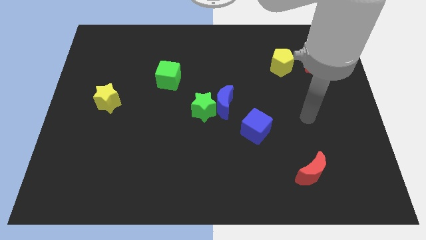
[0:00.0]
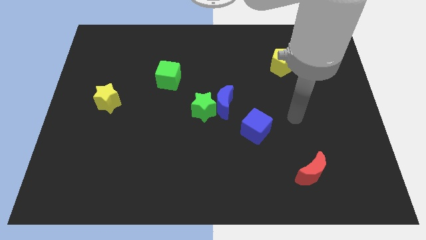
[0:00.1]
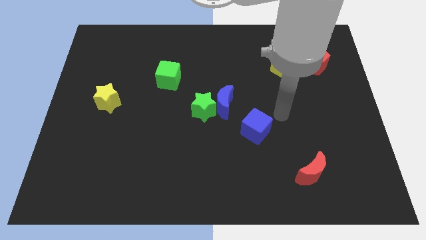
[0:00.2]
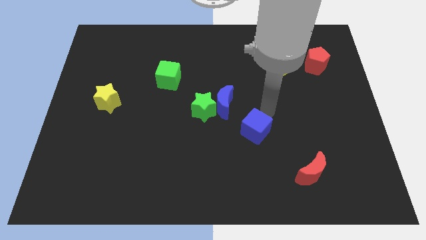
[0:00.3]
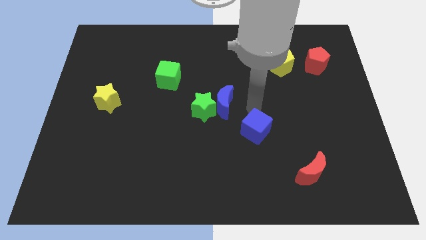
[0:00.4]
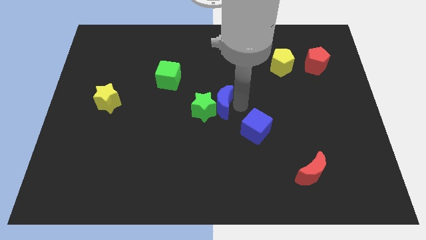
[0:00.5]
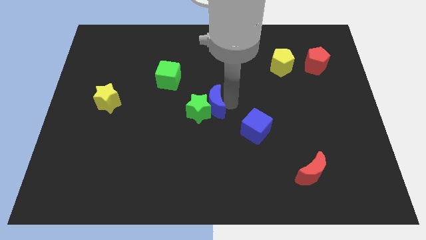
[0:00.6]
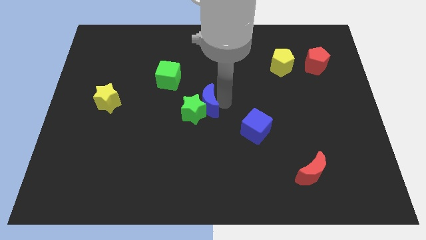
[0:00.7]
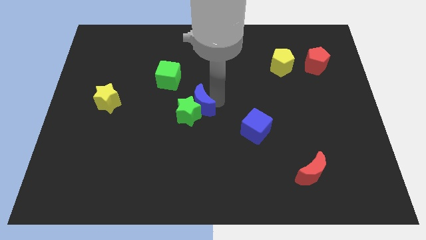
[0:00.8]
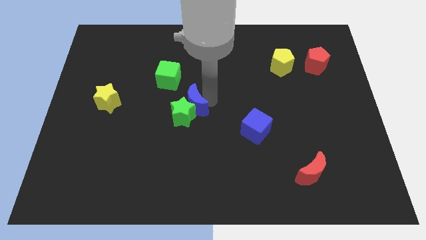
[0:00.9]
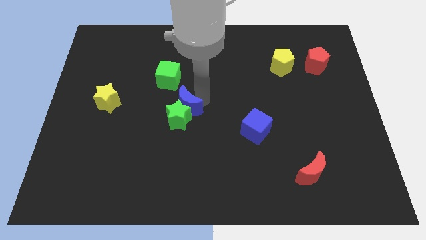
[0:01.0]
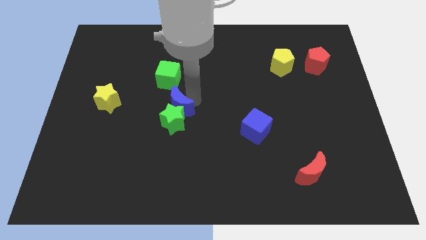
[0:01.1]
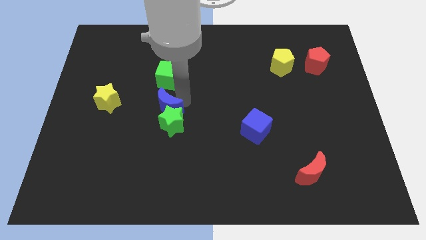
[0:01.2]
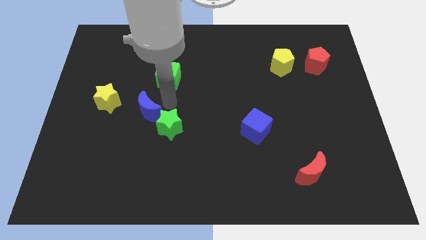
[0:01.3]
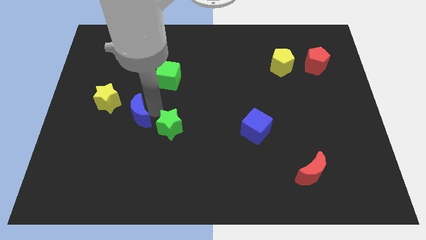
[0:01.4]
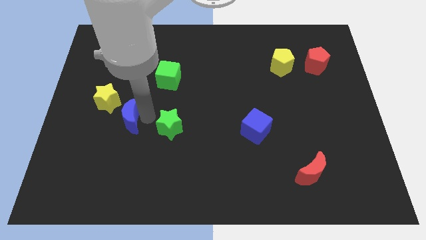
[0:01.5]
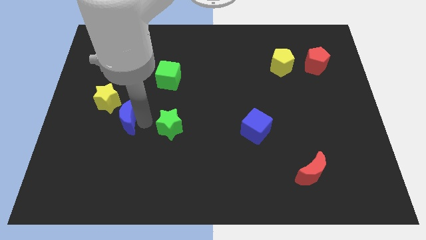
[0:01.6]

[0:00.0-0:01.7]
separate the green star from the blue moon

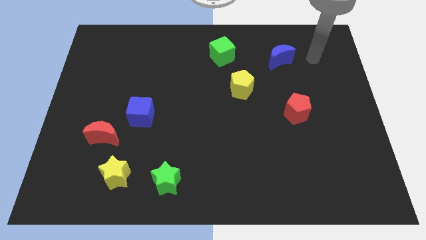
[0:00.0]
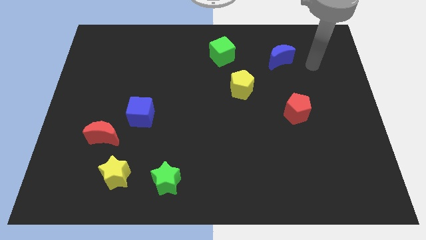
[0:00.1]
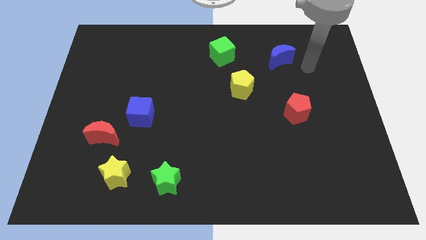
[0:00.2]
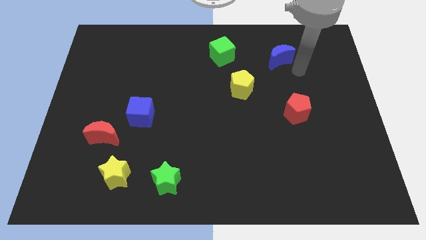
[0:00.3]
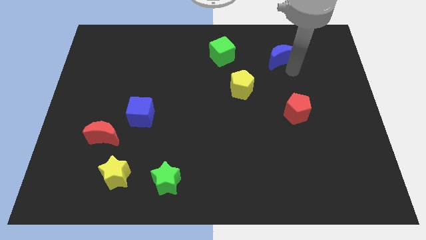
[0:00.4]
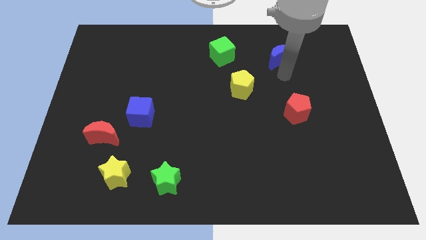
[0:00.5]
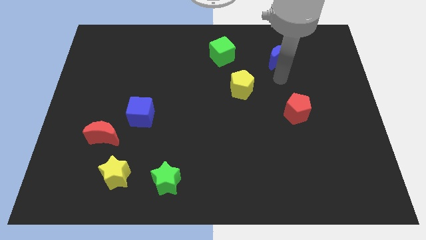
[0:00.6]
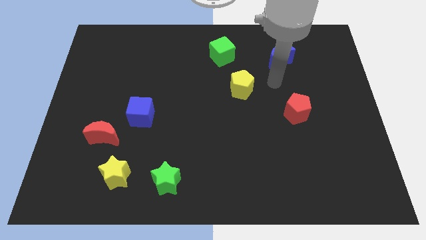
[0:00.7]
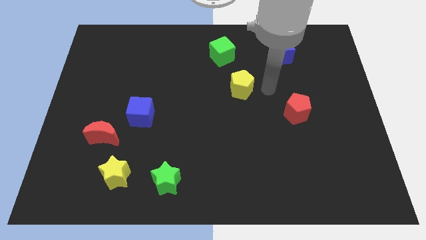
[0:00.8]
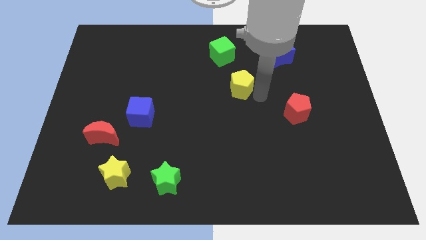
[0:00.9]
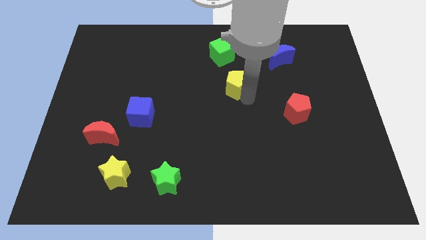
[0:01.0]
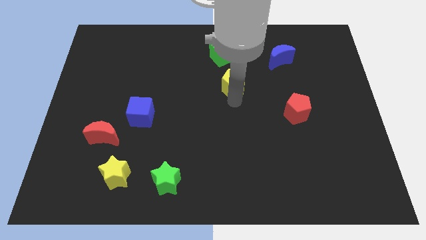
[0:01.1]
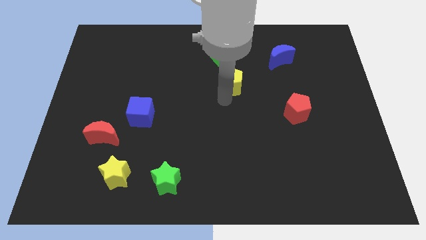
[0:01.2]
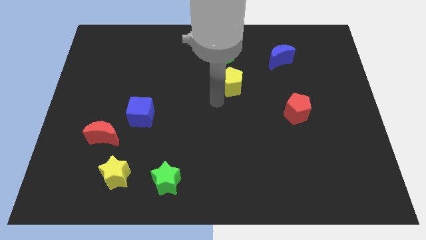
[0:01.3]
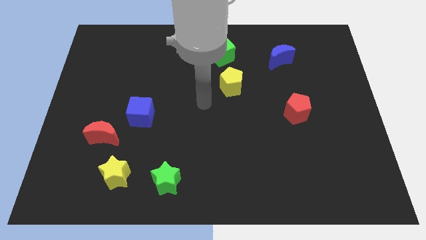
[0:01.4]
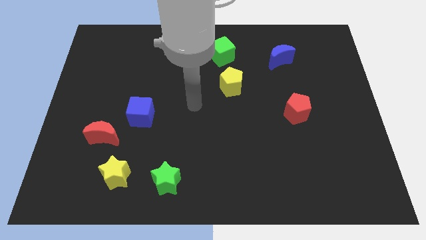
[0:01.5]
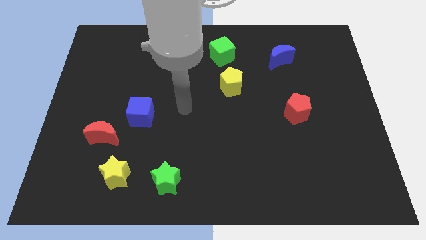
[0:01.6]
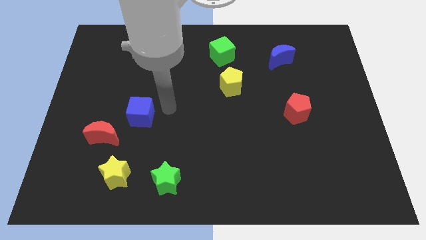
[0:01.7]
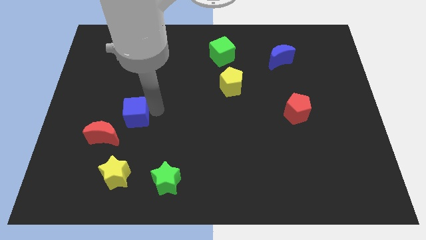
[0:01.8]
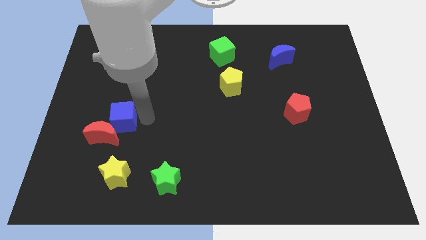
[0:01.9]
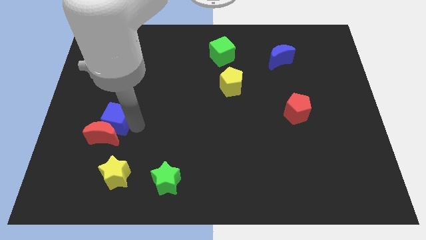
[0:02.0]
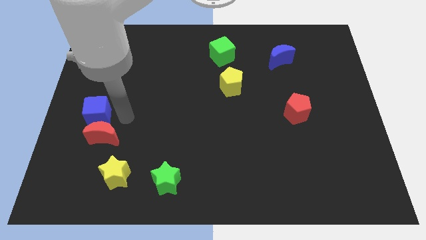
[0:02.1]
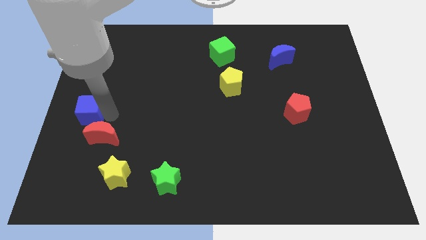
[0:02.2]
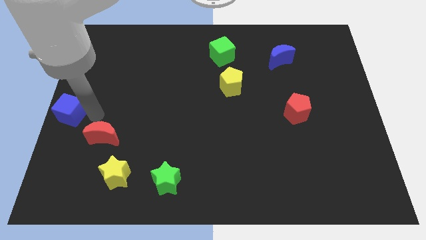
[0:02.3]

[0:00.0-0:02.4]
separate the red moon from the blue cube

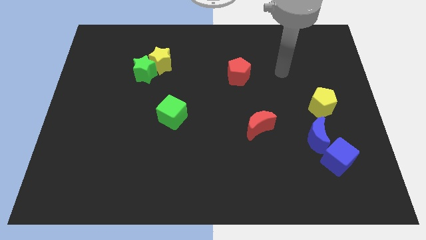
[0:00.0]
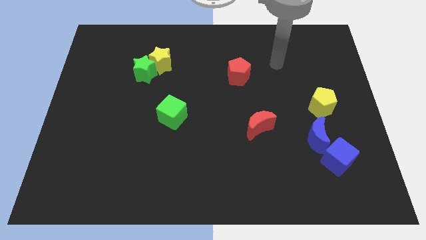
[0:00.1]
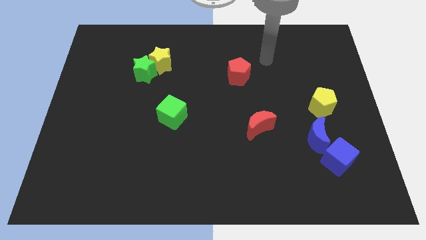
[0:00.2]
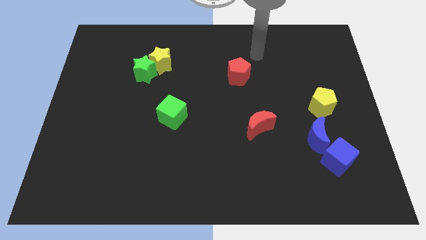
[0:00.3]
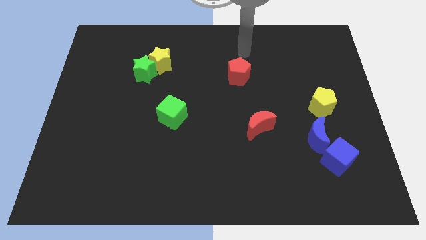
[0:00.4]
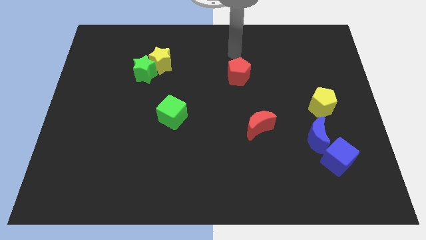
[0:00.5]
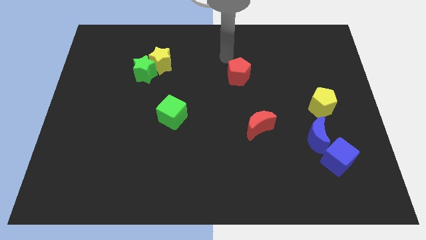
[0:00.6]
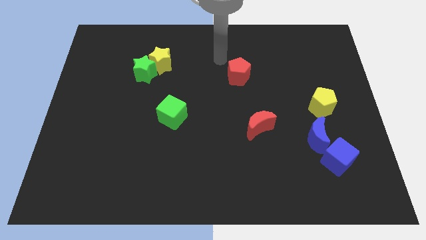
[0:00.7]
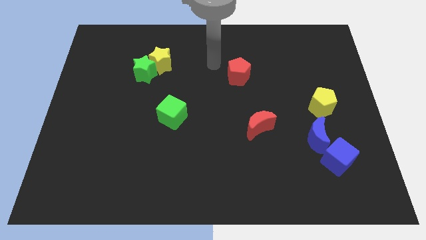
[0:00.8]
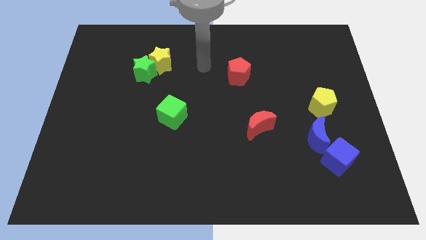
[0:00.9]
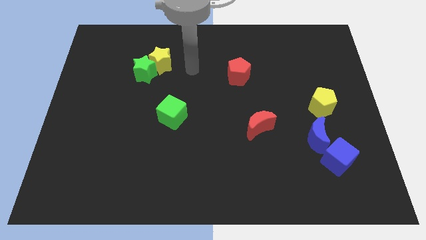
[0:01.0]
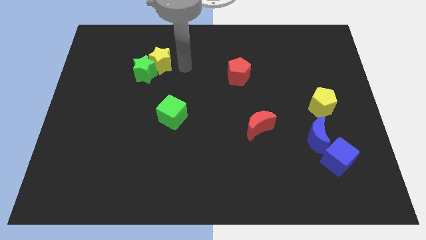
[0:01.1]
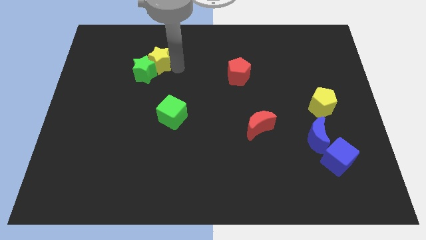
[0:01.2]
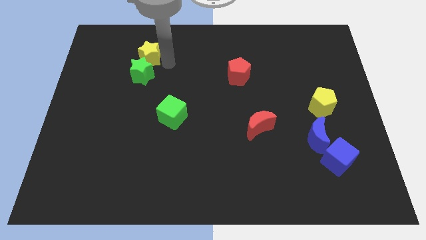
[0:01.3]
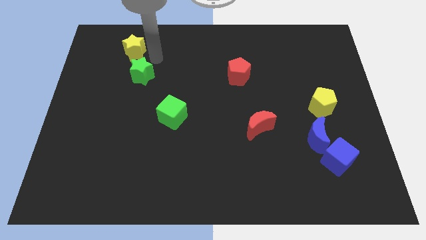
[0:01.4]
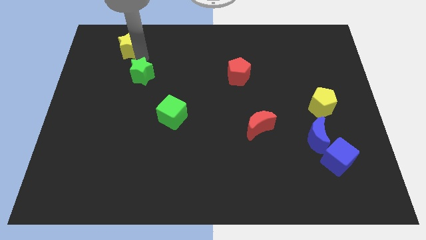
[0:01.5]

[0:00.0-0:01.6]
separate the green star from the yellow star

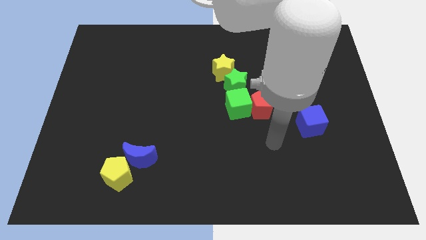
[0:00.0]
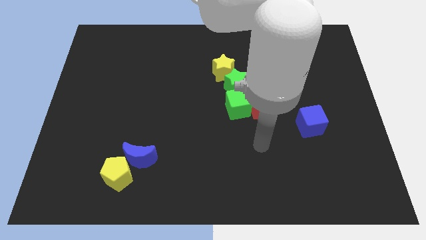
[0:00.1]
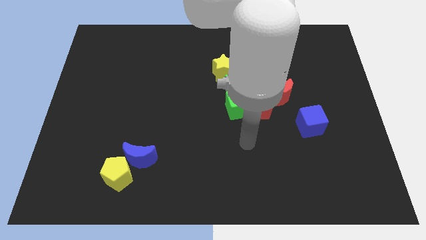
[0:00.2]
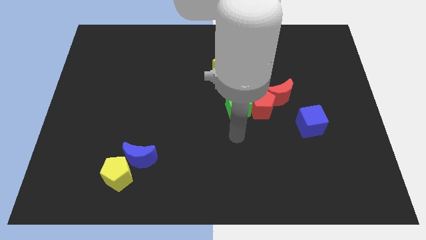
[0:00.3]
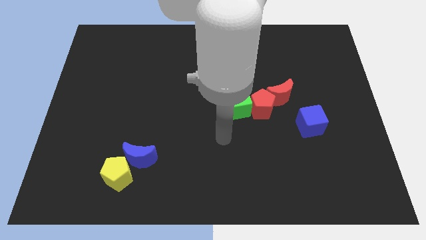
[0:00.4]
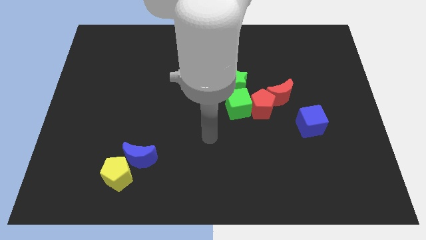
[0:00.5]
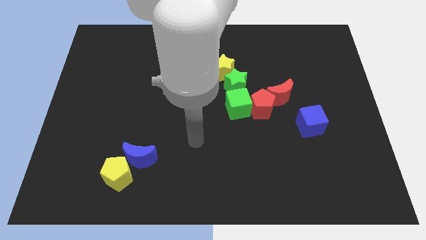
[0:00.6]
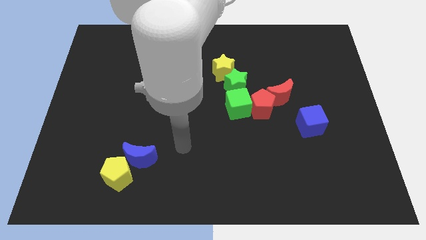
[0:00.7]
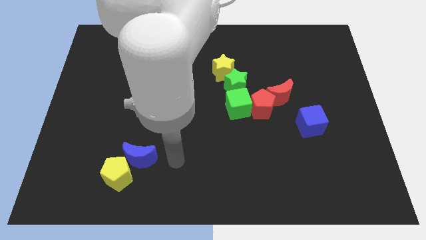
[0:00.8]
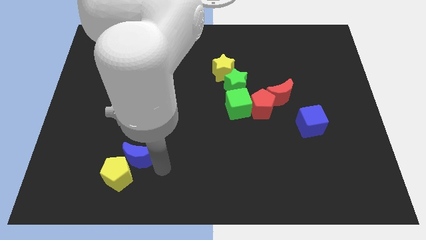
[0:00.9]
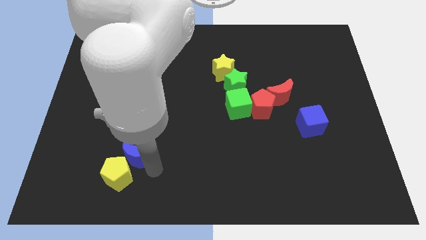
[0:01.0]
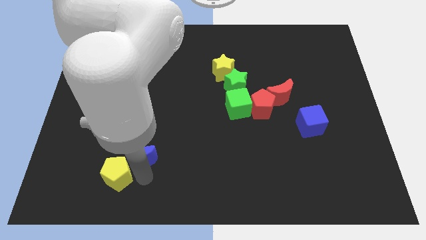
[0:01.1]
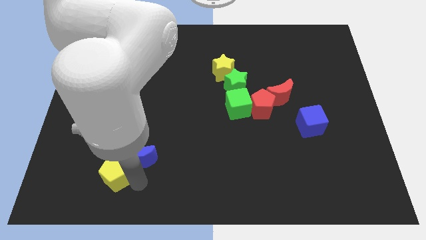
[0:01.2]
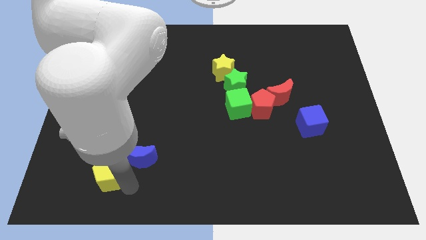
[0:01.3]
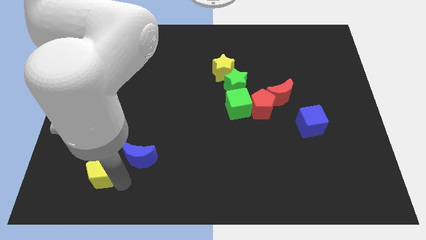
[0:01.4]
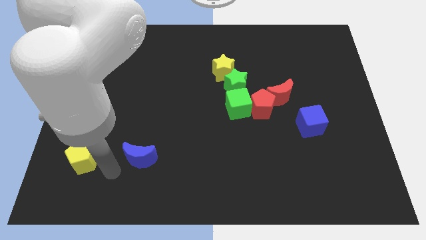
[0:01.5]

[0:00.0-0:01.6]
move the blue moon away from the yellow pentagon

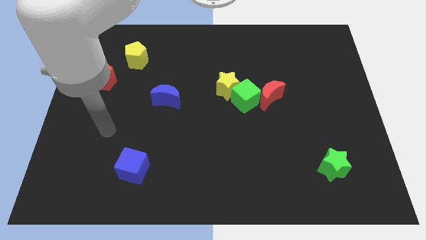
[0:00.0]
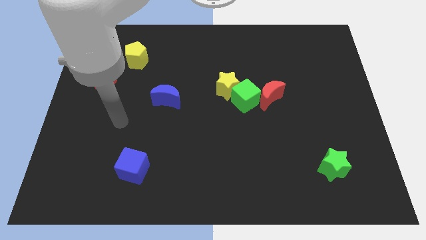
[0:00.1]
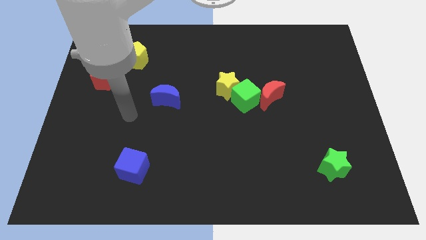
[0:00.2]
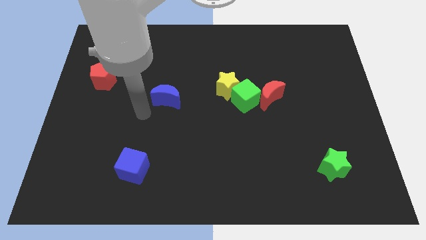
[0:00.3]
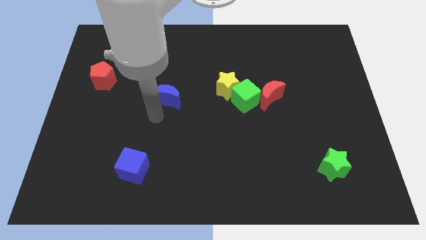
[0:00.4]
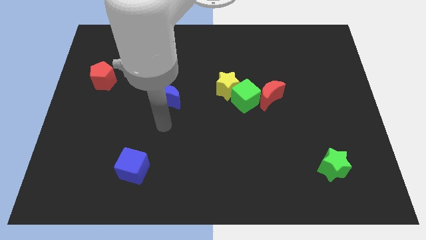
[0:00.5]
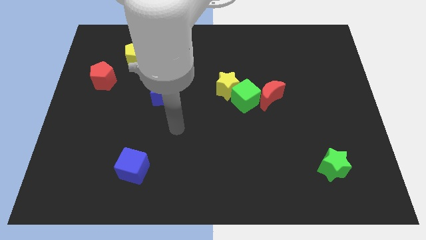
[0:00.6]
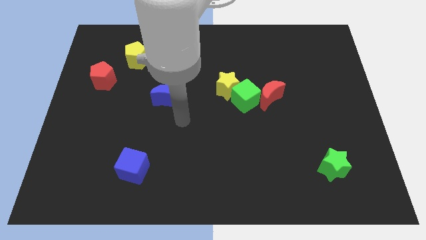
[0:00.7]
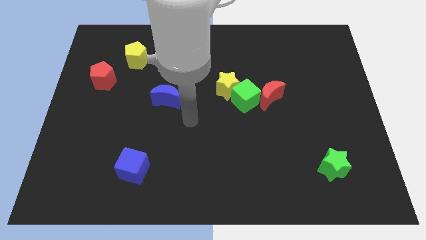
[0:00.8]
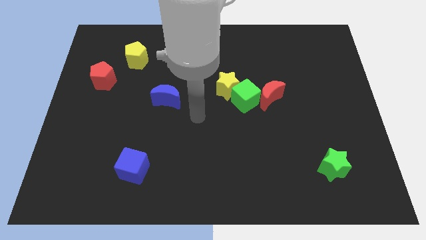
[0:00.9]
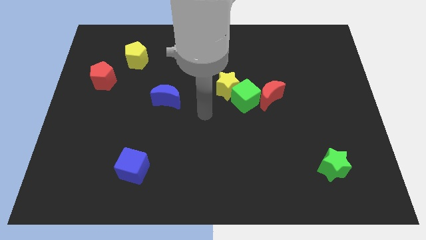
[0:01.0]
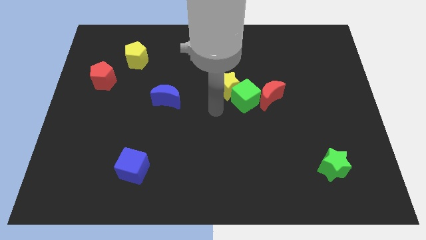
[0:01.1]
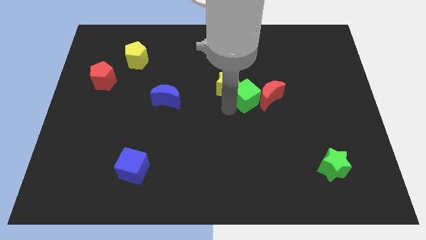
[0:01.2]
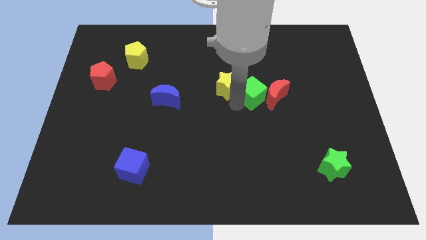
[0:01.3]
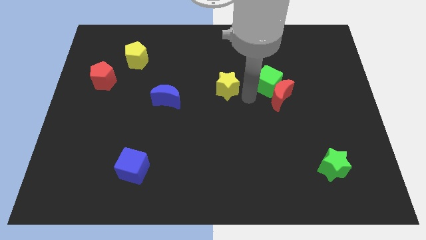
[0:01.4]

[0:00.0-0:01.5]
pull the yellow star apart from the green cube

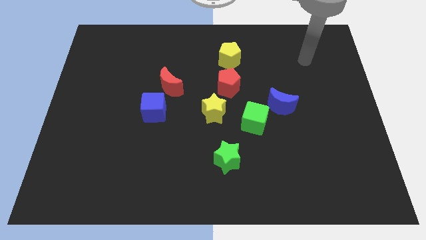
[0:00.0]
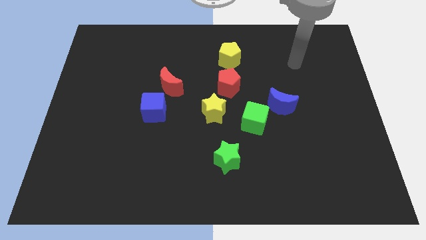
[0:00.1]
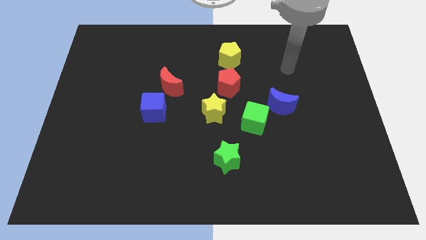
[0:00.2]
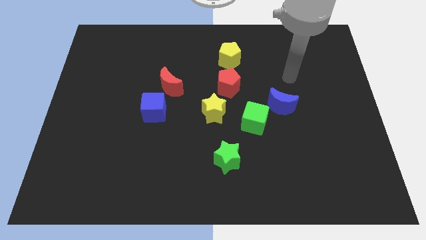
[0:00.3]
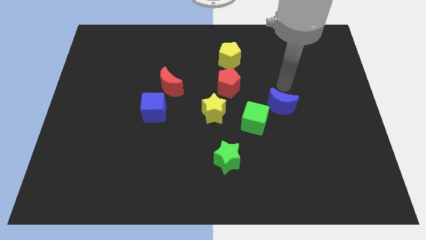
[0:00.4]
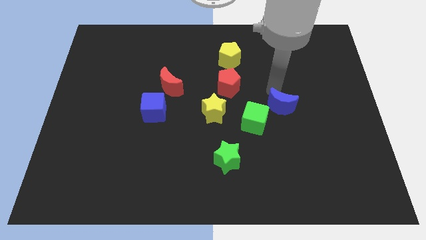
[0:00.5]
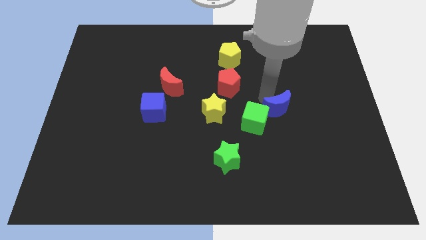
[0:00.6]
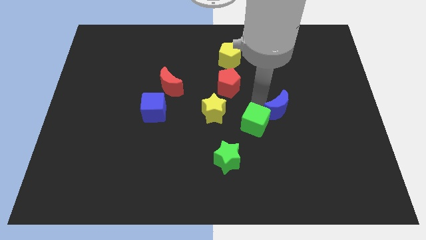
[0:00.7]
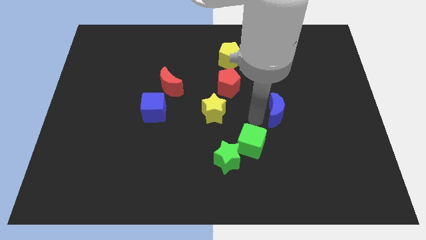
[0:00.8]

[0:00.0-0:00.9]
move the blue moon away from the green cube
